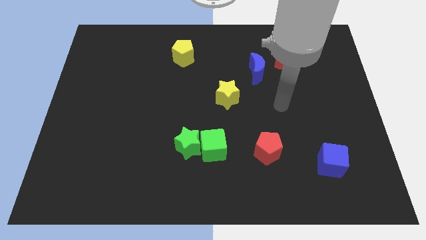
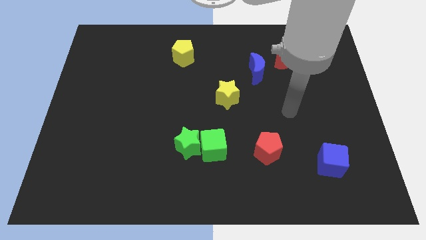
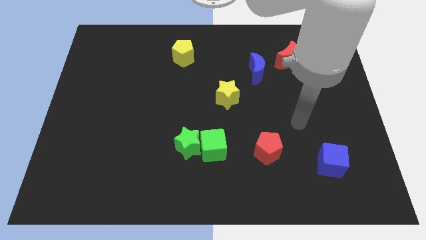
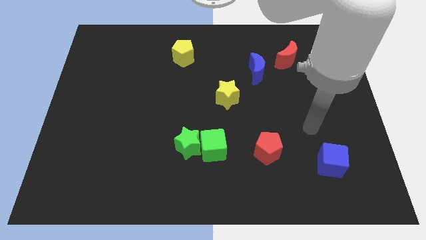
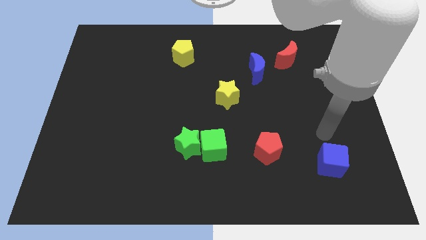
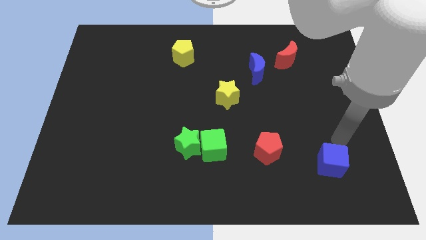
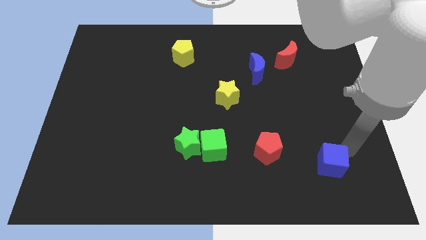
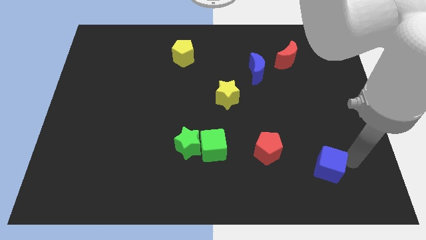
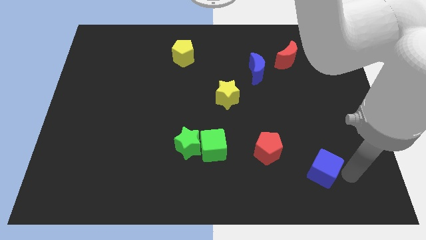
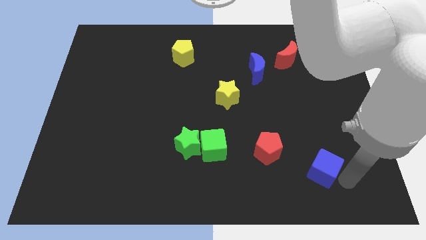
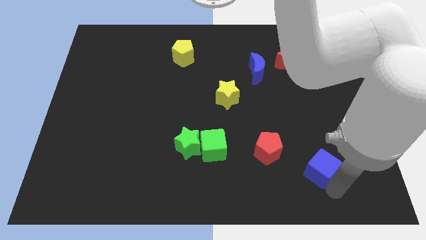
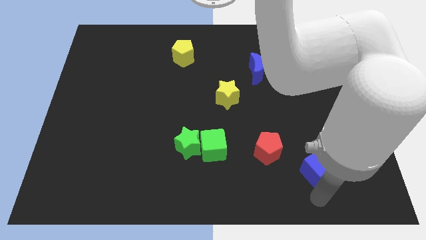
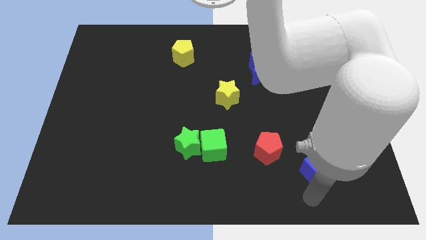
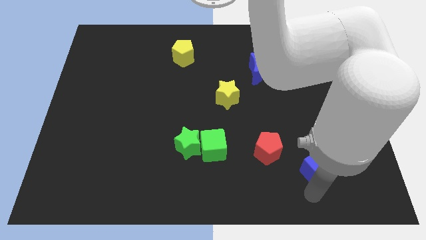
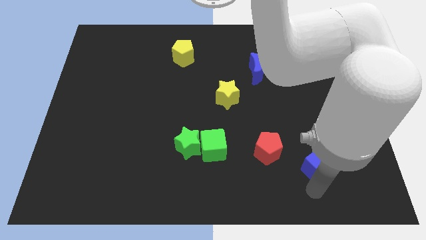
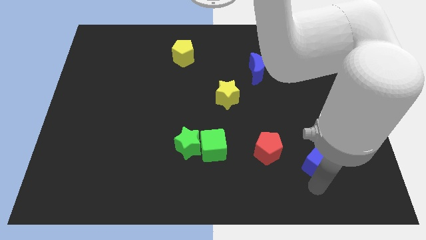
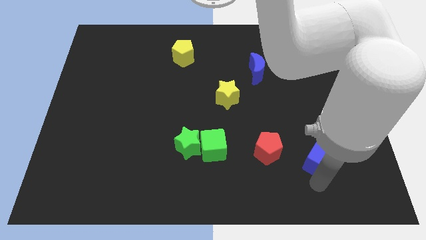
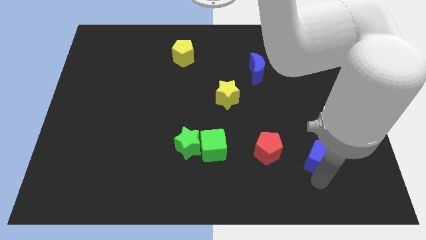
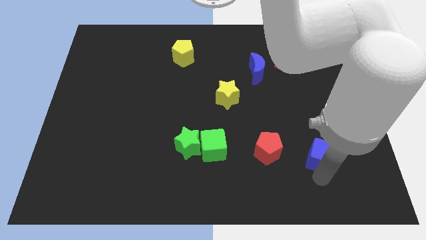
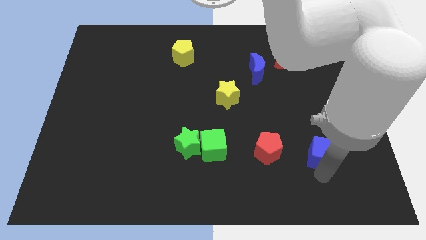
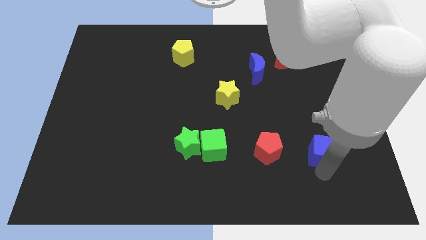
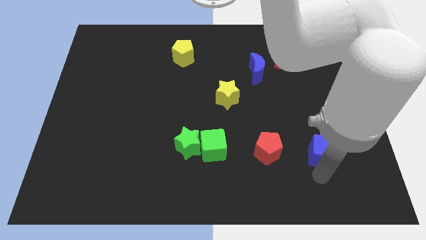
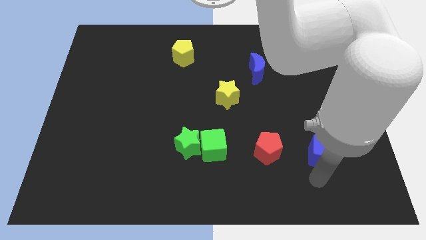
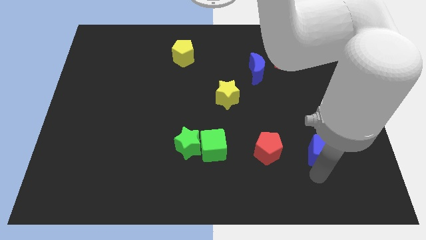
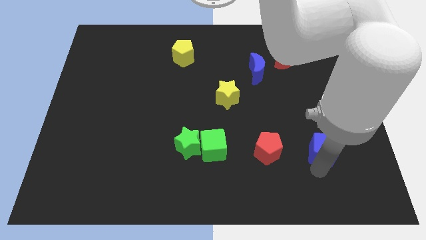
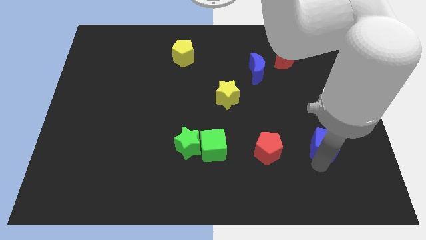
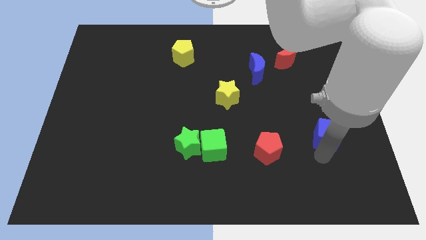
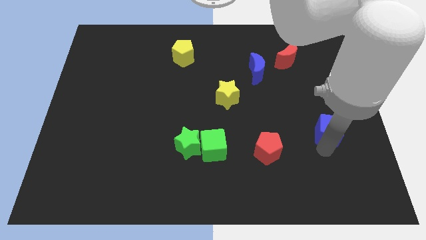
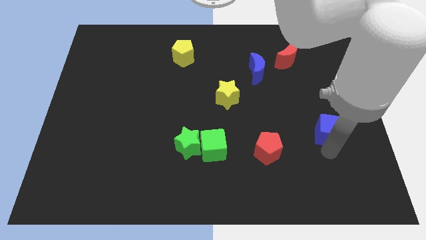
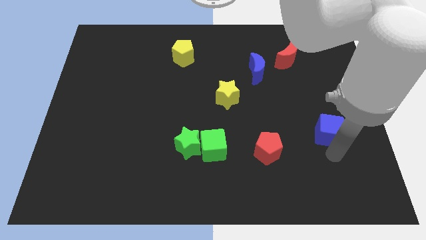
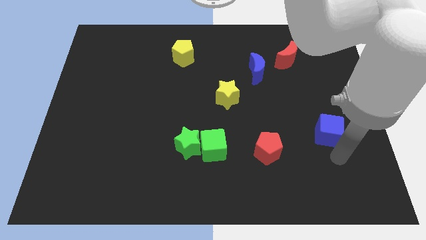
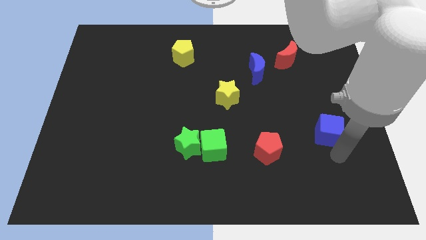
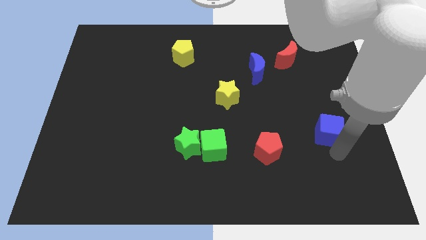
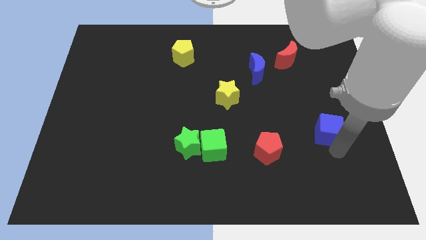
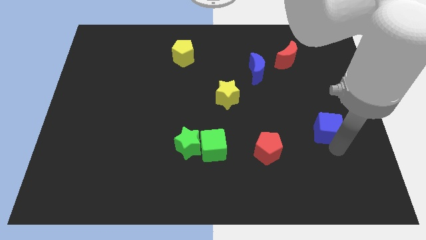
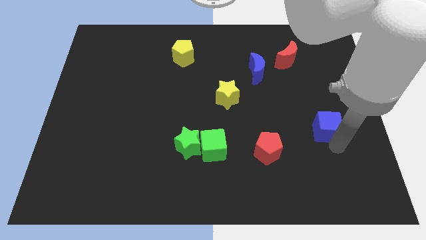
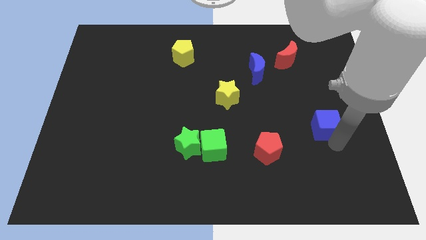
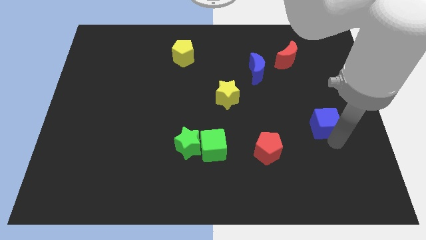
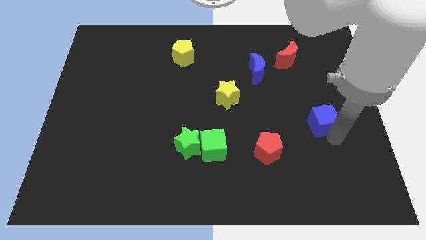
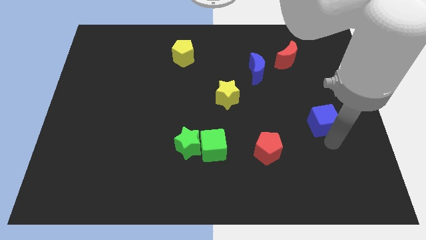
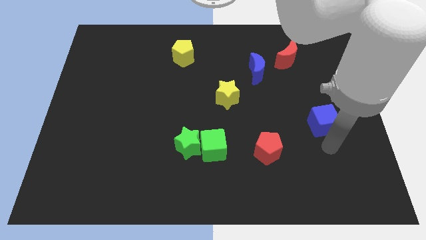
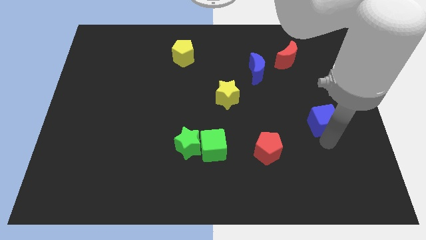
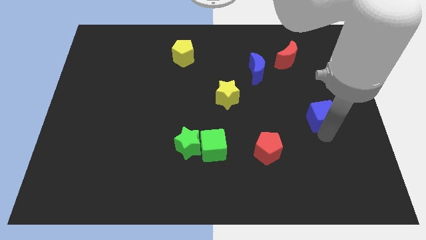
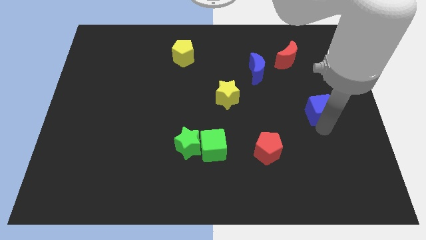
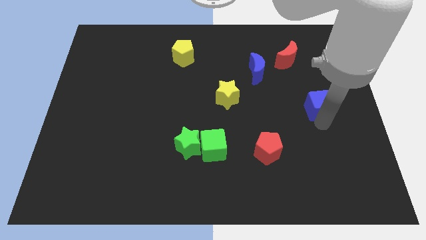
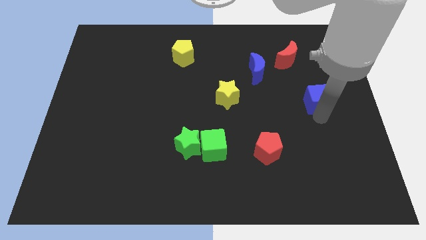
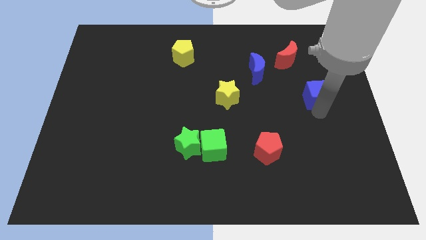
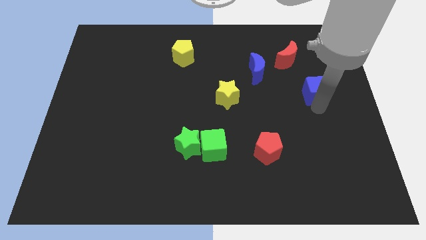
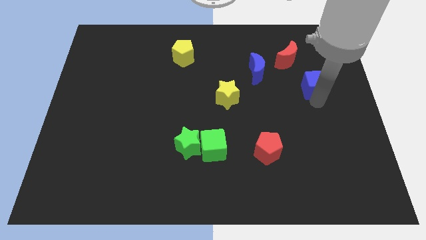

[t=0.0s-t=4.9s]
push the blue cube upwards

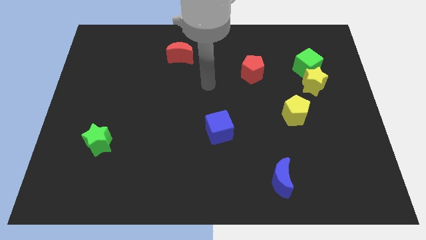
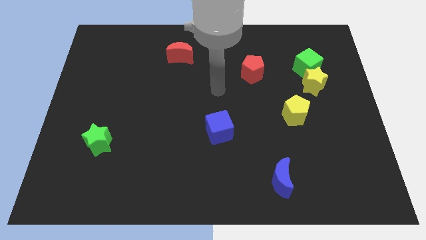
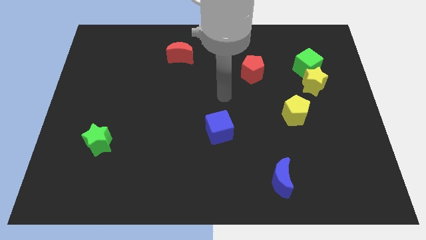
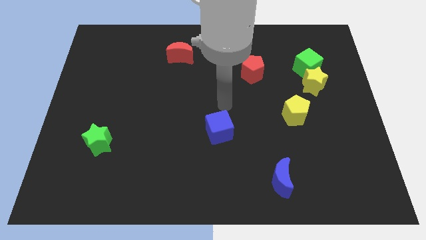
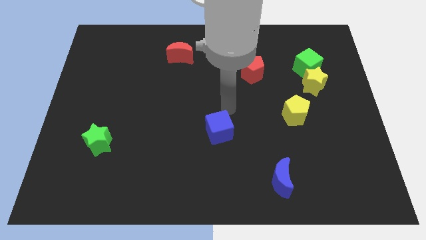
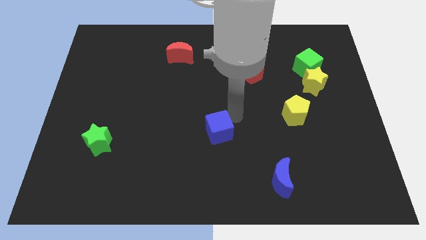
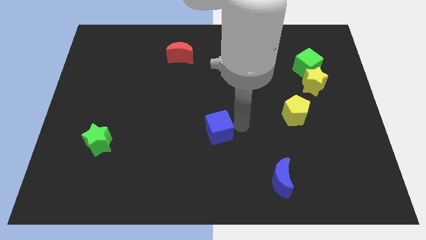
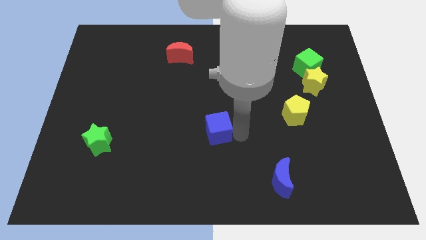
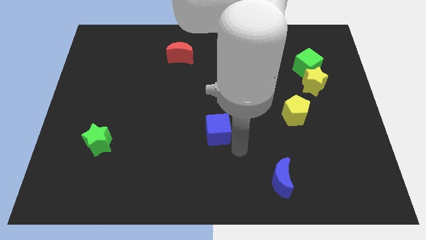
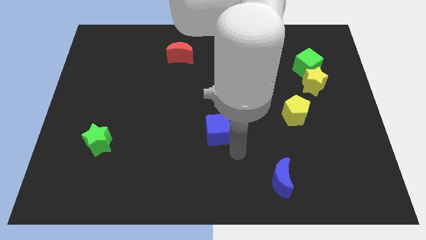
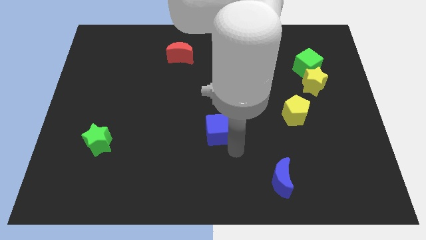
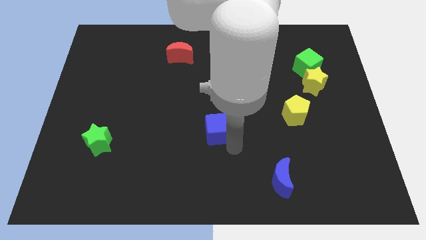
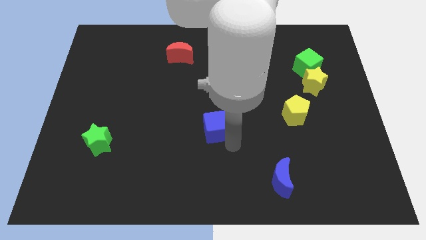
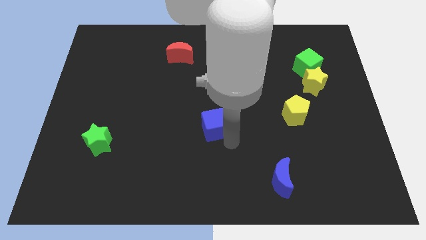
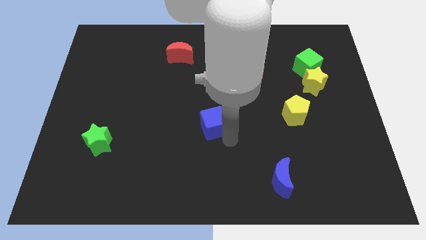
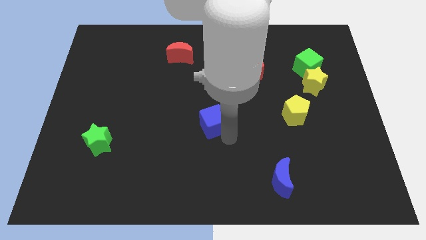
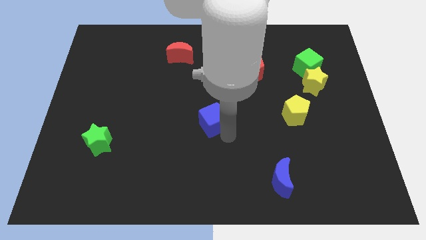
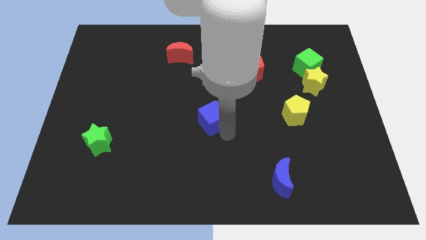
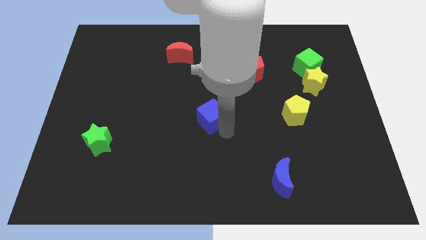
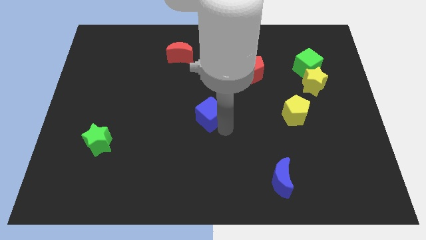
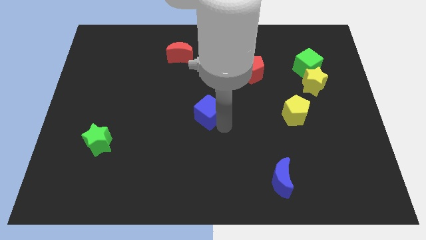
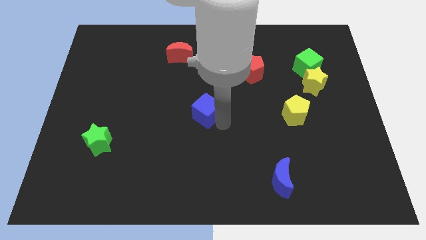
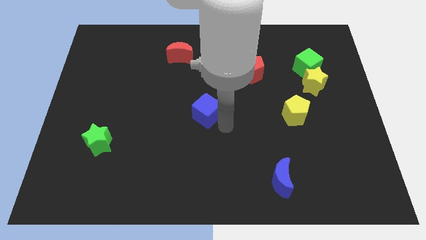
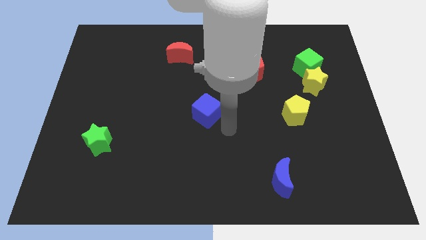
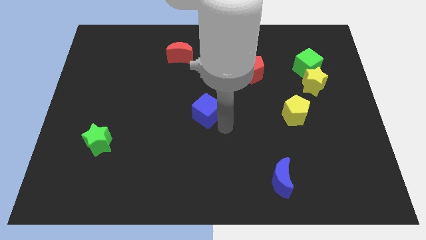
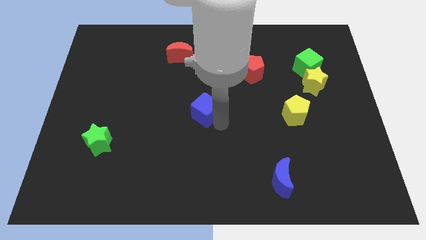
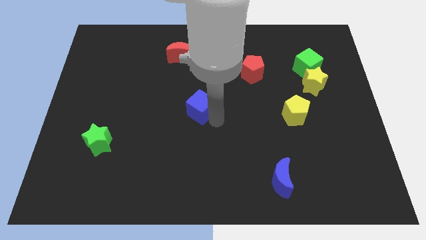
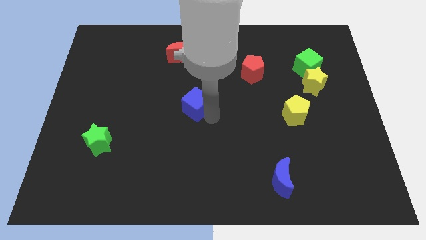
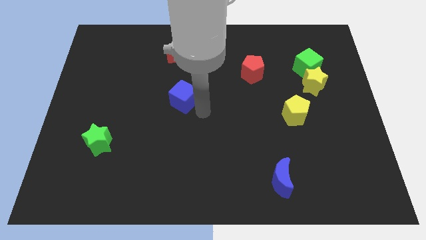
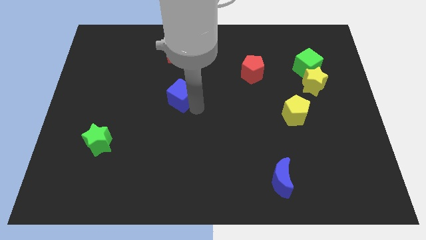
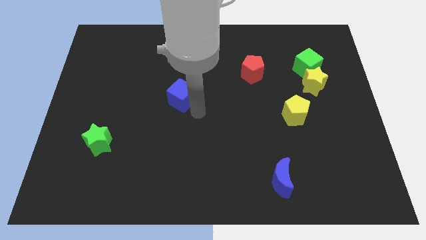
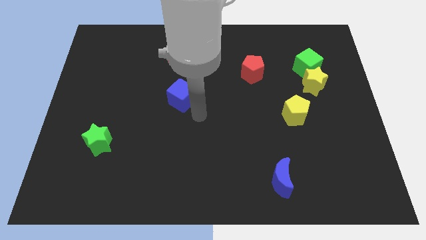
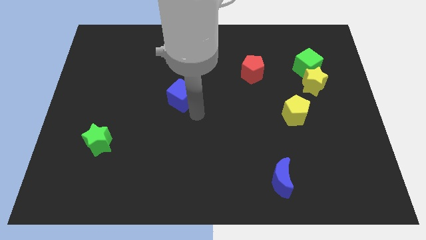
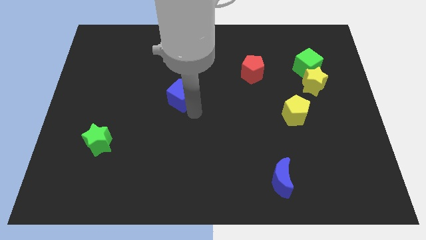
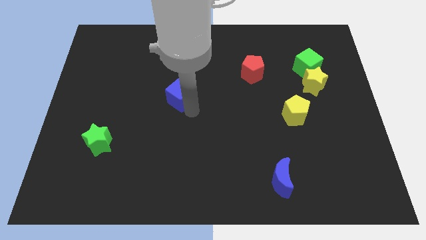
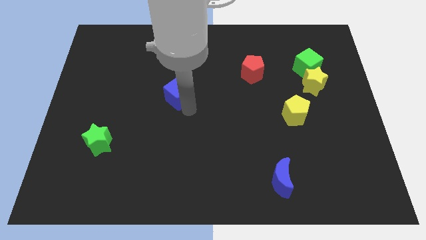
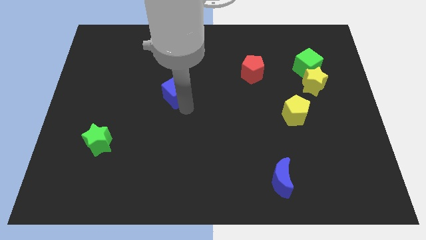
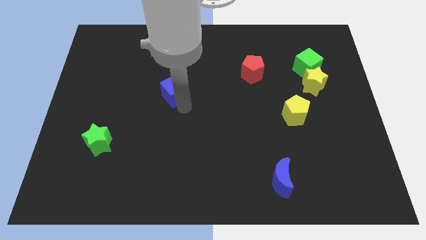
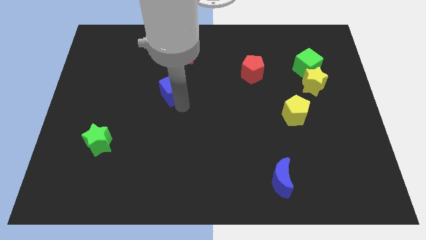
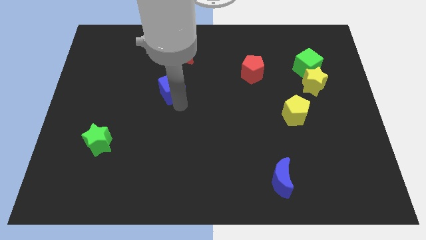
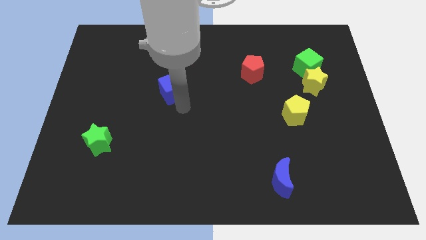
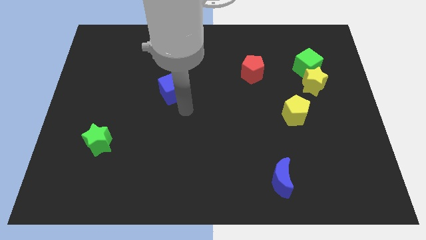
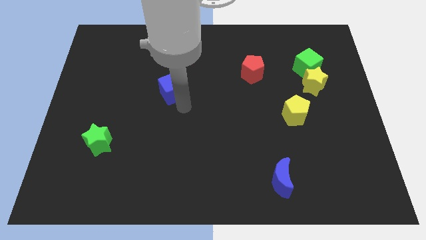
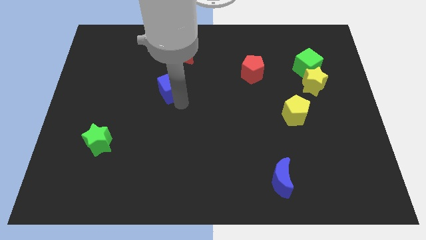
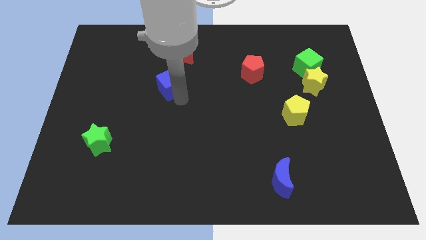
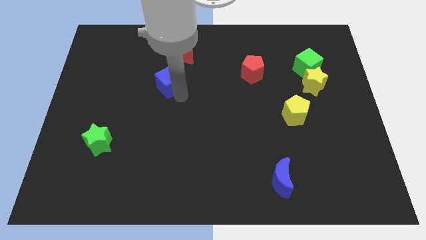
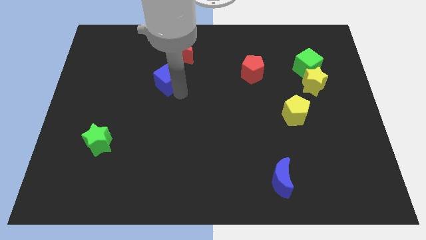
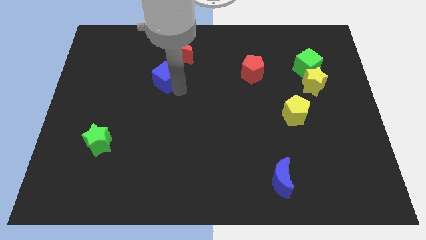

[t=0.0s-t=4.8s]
slide the blue cube diagonally up and left
